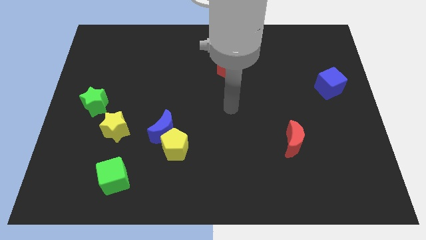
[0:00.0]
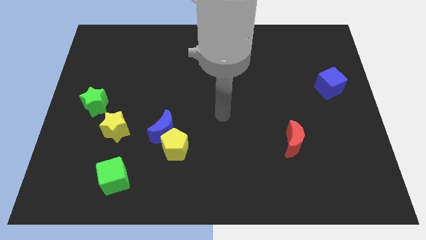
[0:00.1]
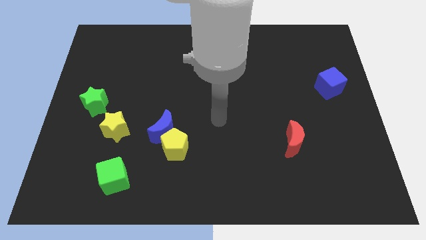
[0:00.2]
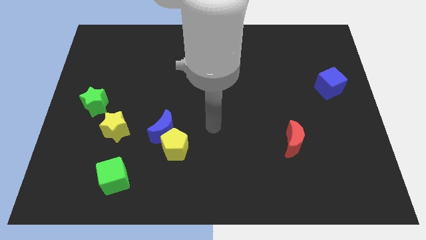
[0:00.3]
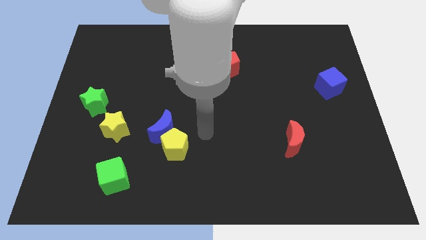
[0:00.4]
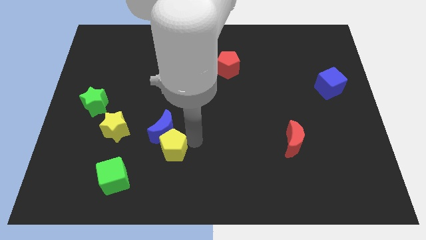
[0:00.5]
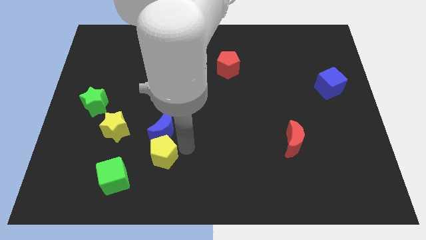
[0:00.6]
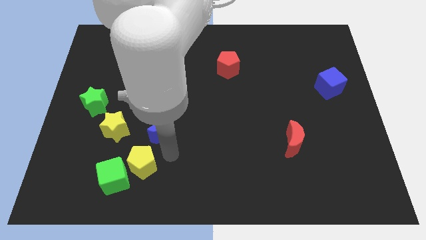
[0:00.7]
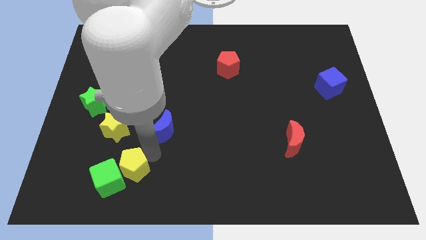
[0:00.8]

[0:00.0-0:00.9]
pull the blue moon apart from the yellow pentagon

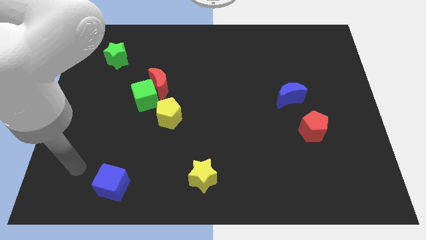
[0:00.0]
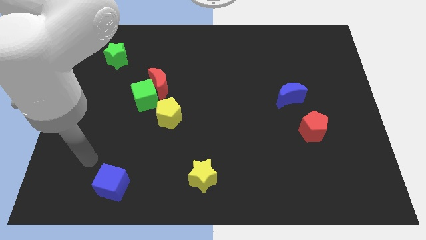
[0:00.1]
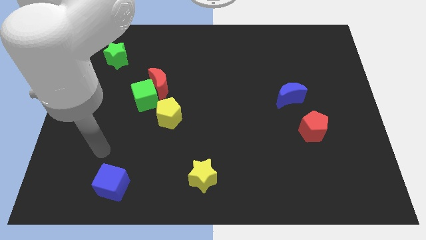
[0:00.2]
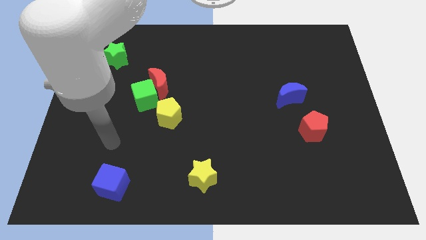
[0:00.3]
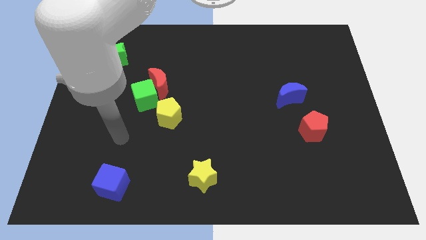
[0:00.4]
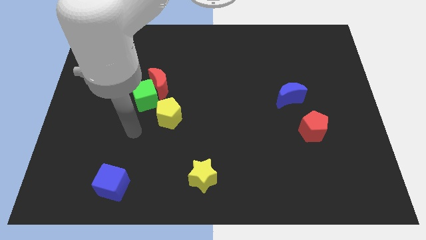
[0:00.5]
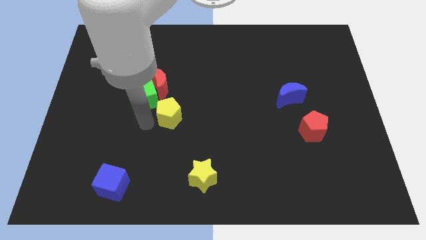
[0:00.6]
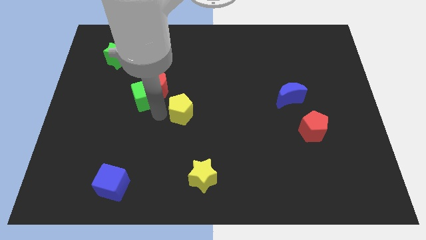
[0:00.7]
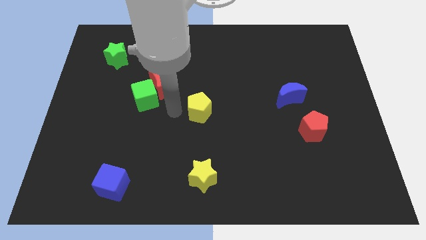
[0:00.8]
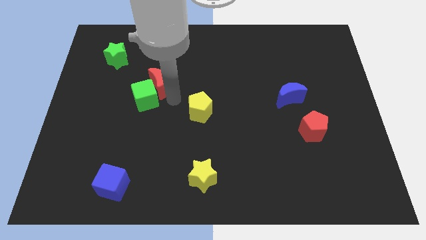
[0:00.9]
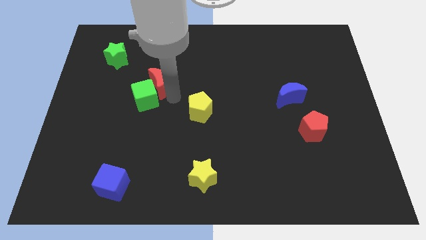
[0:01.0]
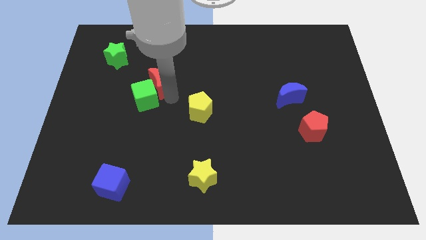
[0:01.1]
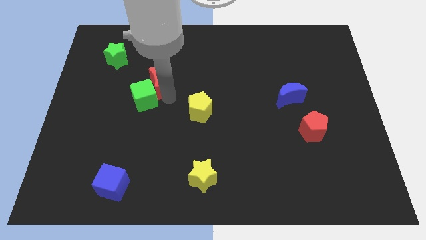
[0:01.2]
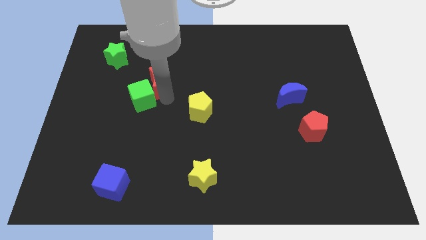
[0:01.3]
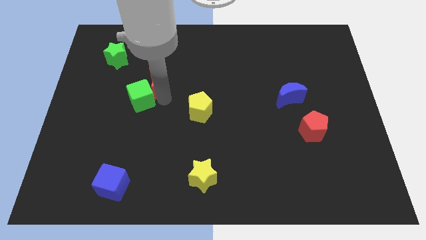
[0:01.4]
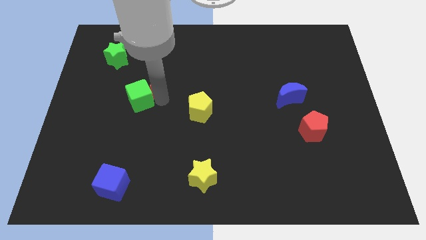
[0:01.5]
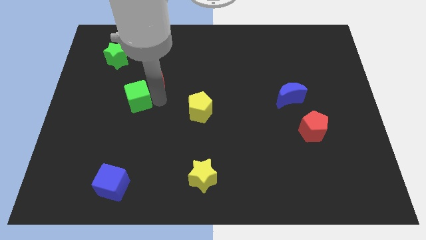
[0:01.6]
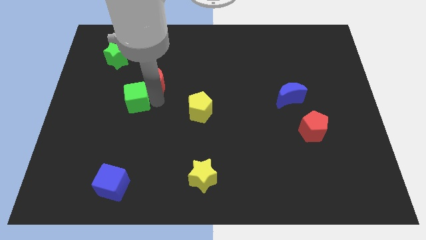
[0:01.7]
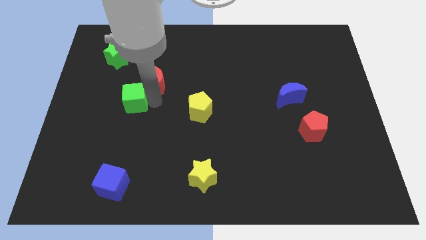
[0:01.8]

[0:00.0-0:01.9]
separate the green cube from the red moon and yellow pentagon

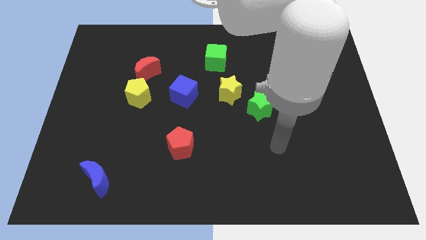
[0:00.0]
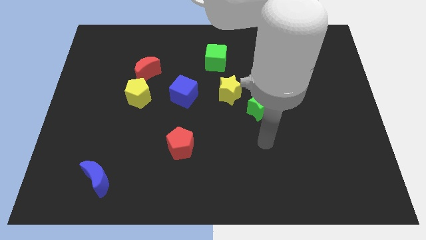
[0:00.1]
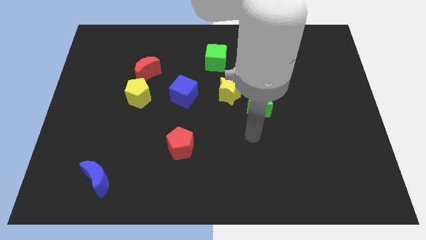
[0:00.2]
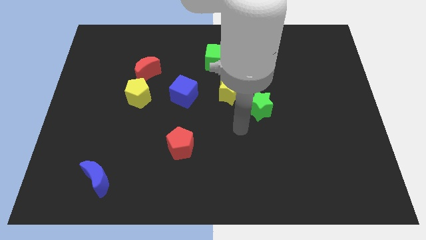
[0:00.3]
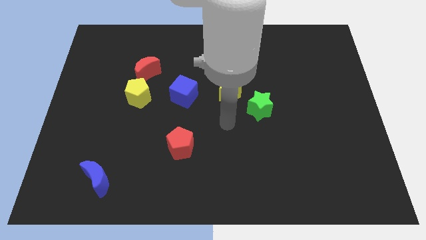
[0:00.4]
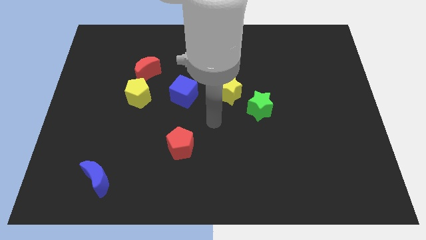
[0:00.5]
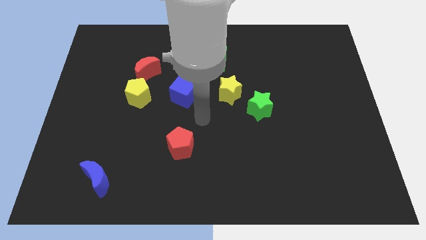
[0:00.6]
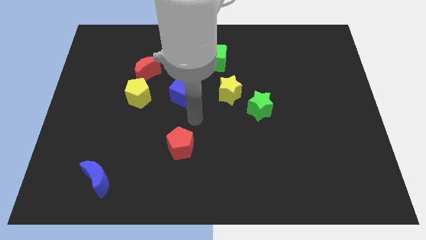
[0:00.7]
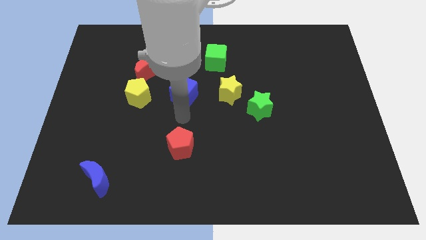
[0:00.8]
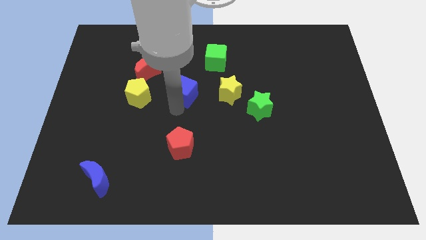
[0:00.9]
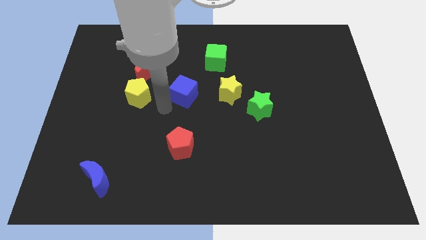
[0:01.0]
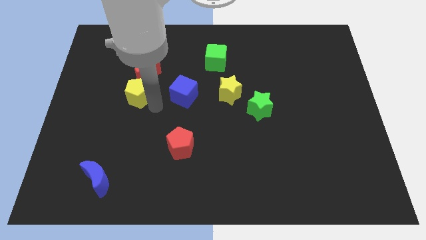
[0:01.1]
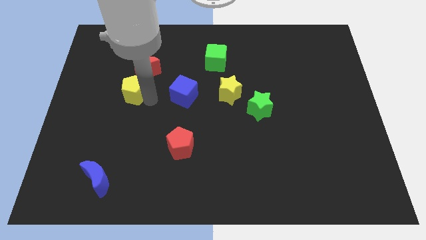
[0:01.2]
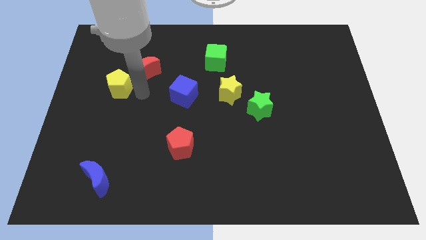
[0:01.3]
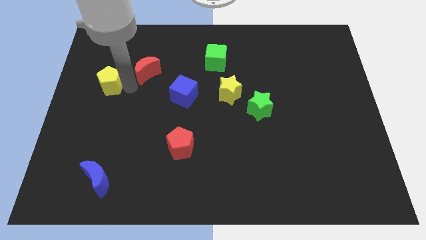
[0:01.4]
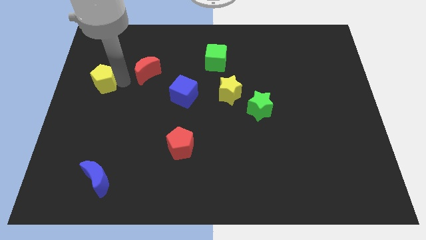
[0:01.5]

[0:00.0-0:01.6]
pull the red moon apart from the yellow pentagon

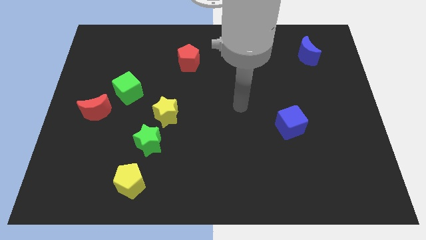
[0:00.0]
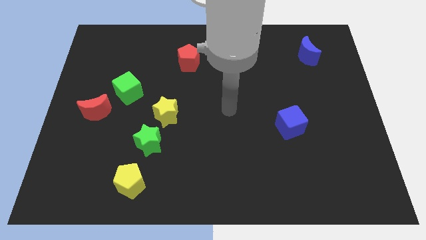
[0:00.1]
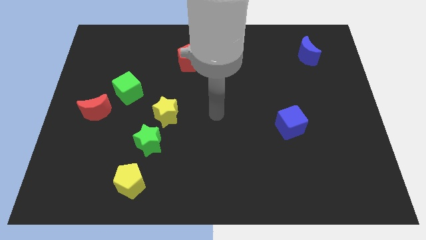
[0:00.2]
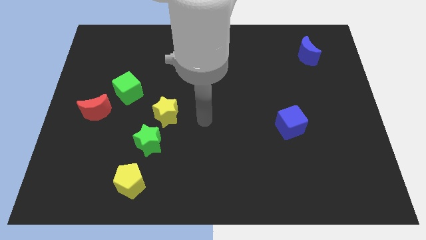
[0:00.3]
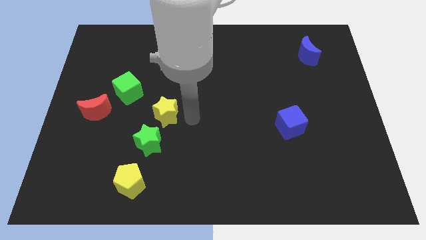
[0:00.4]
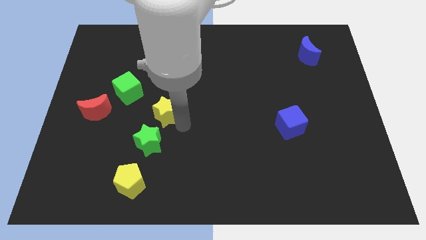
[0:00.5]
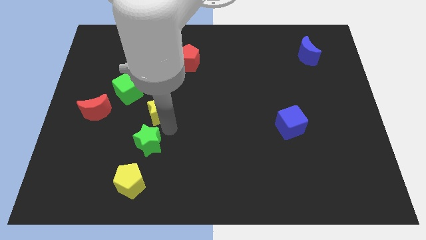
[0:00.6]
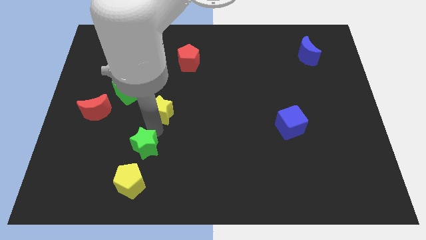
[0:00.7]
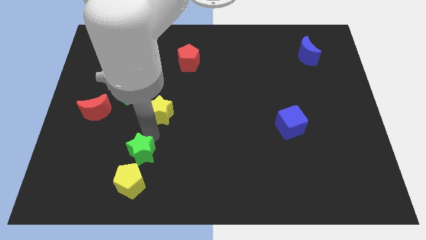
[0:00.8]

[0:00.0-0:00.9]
pull the yellow star apart from the green star

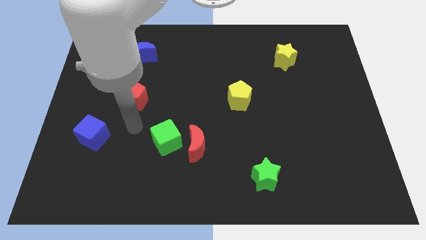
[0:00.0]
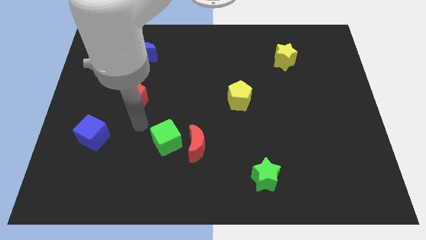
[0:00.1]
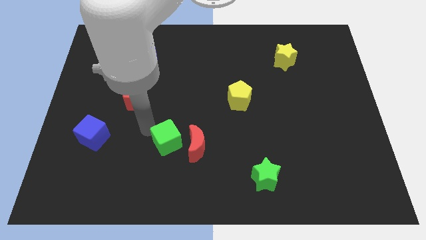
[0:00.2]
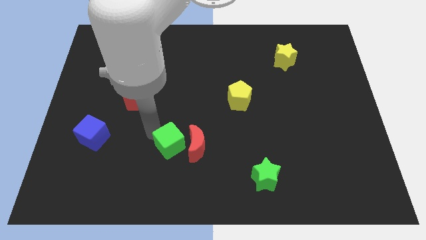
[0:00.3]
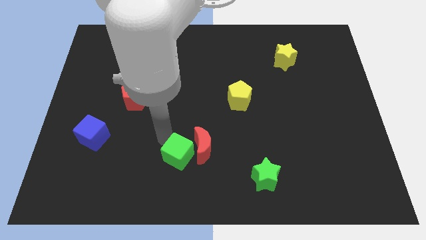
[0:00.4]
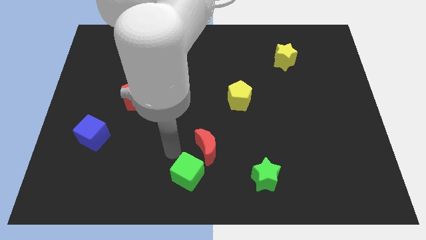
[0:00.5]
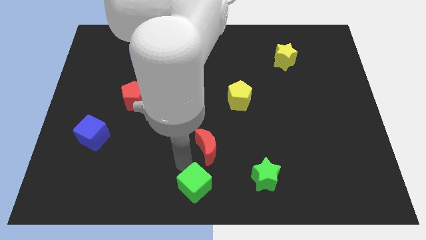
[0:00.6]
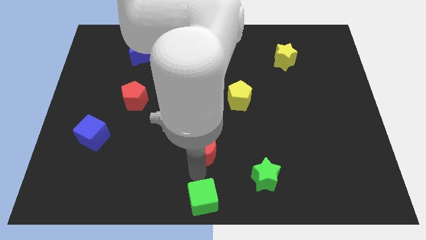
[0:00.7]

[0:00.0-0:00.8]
pull the red moon apart from the green cube

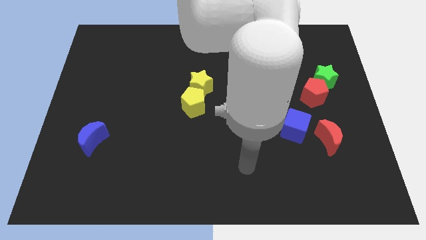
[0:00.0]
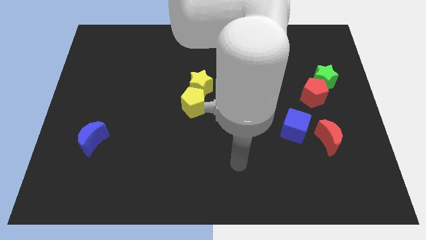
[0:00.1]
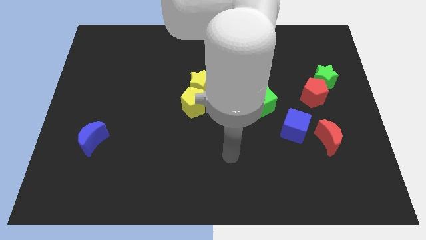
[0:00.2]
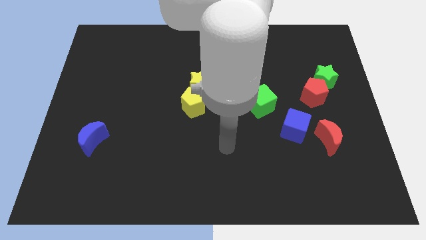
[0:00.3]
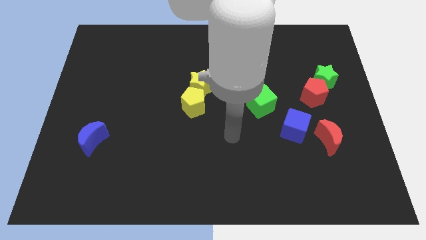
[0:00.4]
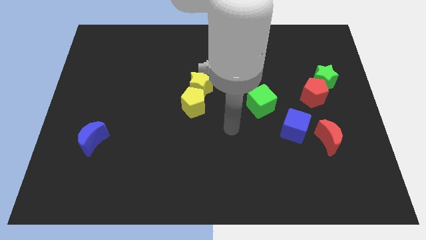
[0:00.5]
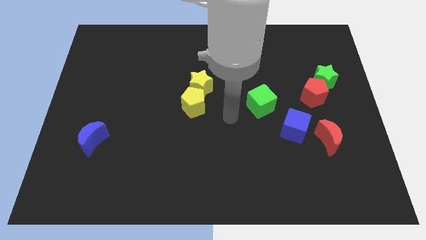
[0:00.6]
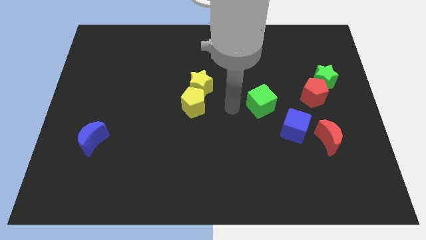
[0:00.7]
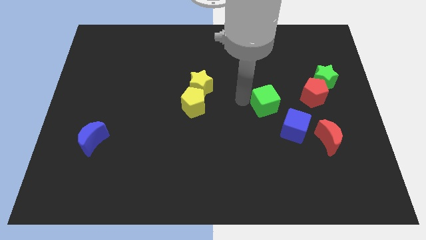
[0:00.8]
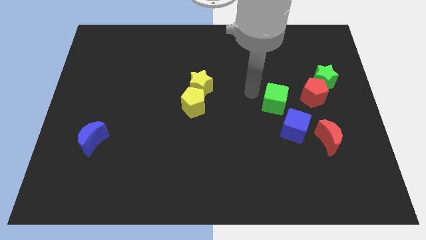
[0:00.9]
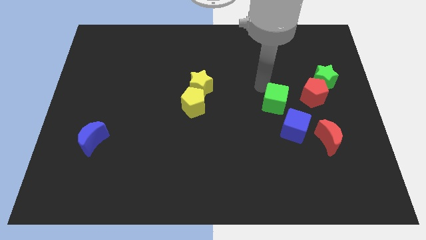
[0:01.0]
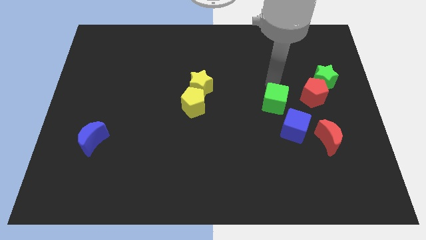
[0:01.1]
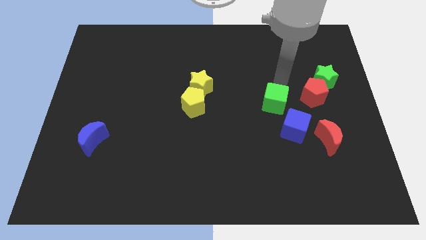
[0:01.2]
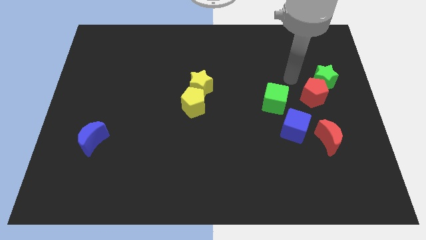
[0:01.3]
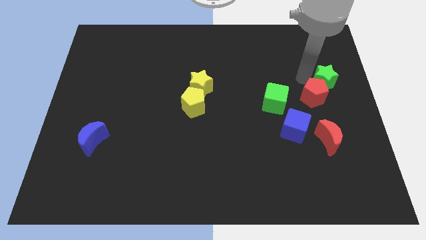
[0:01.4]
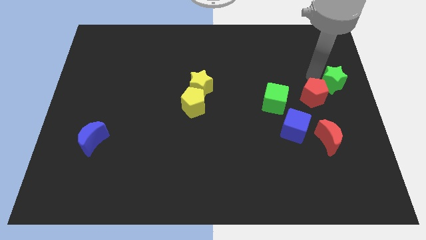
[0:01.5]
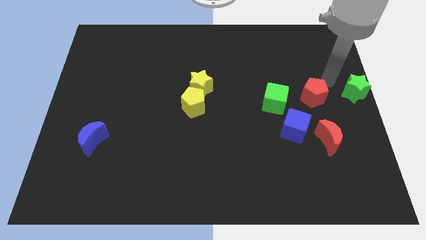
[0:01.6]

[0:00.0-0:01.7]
separate the red pentagon from the green star

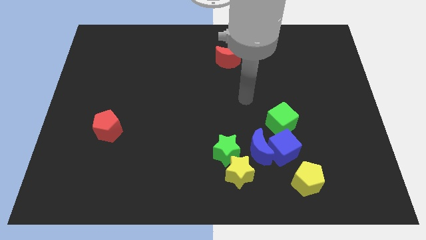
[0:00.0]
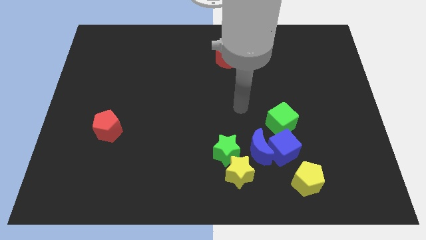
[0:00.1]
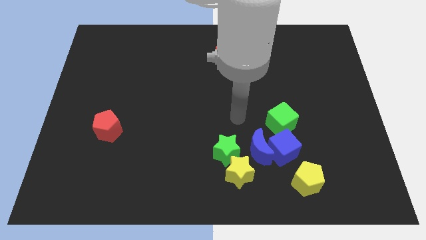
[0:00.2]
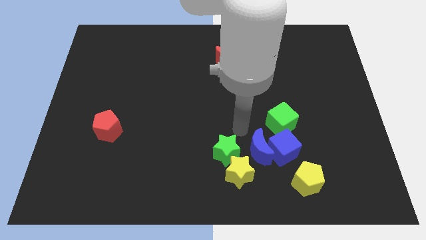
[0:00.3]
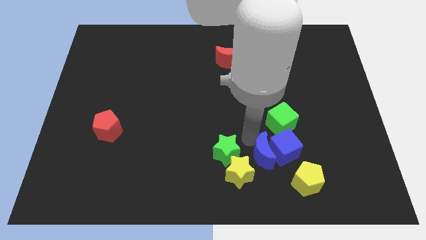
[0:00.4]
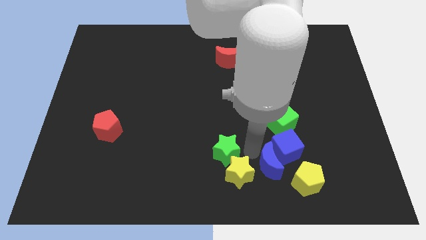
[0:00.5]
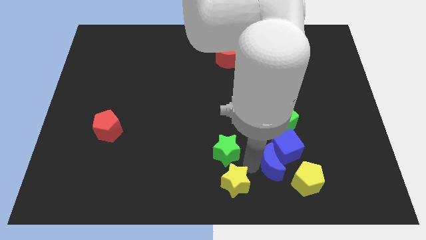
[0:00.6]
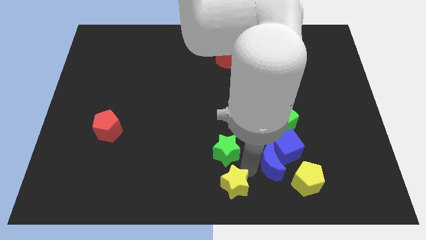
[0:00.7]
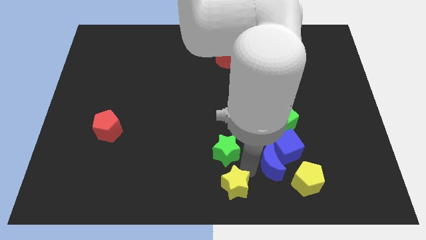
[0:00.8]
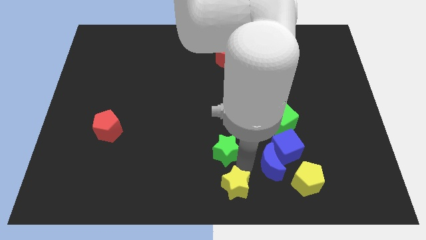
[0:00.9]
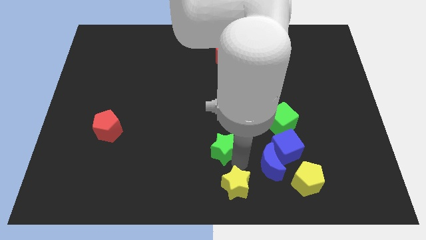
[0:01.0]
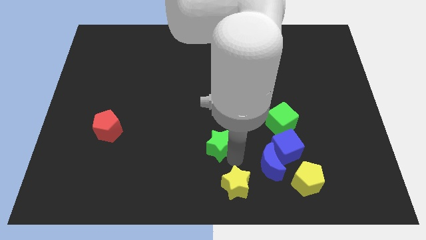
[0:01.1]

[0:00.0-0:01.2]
separate the green star from the yellow star and blue moon

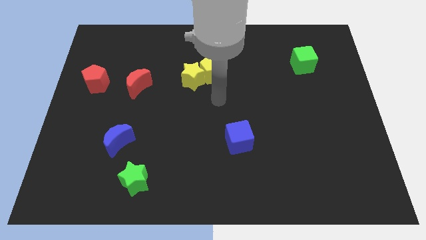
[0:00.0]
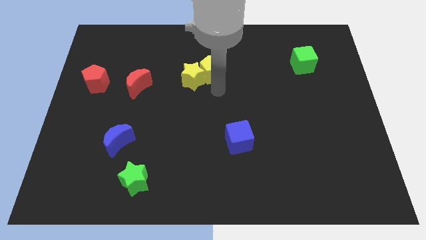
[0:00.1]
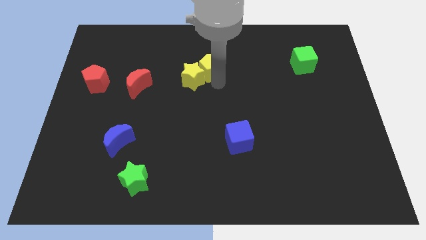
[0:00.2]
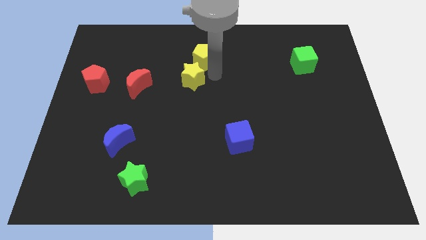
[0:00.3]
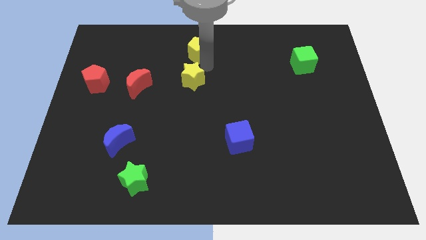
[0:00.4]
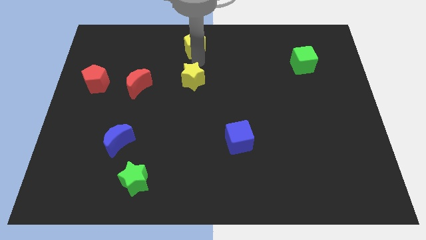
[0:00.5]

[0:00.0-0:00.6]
separate the yellow star from the yellow pentagon
